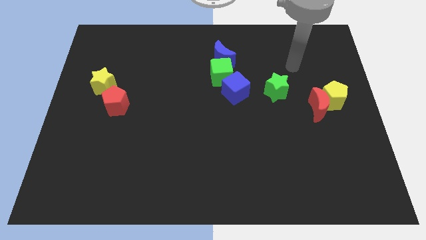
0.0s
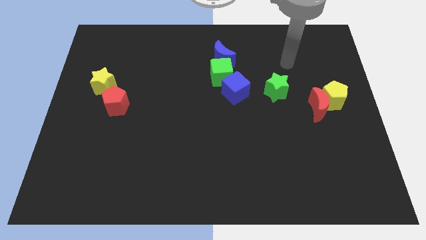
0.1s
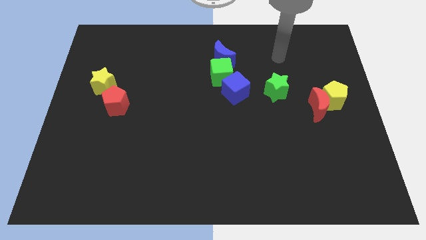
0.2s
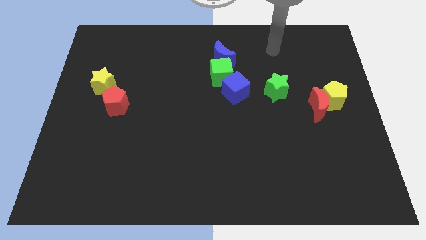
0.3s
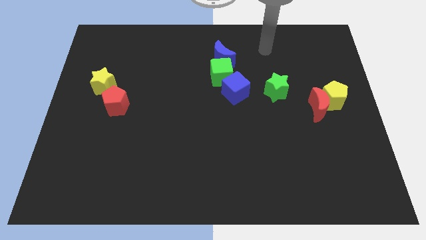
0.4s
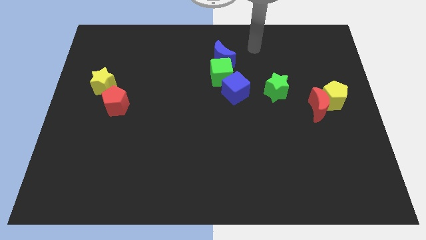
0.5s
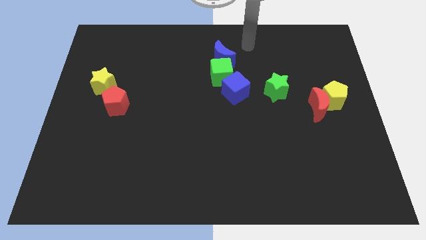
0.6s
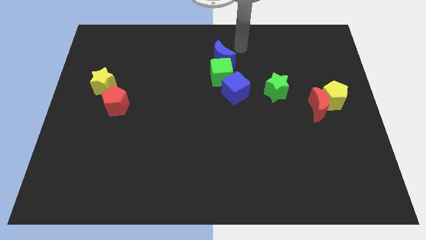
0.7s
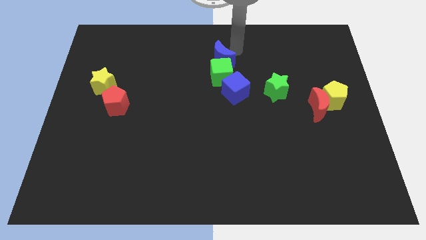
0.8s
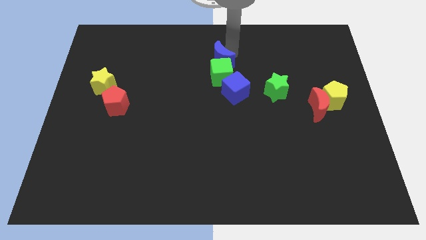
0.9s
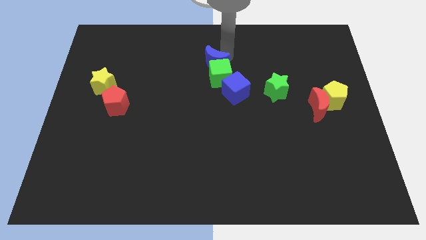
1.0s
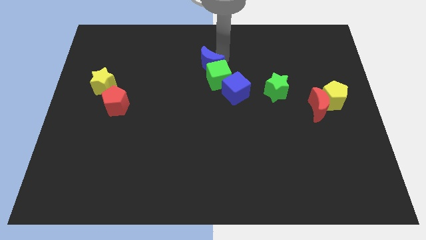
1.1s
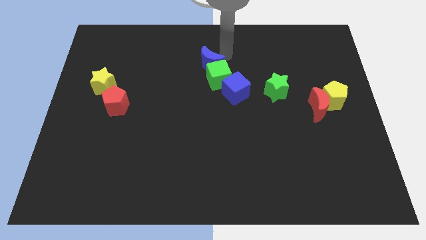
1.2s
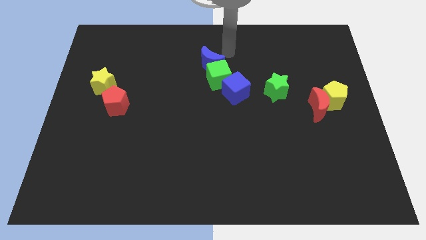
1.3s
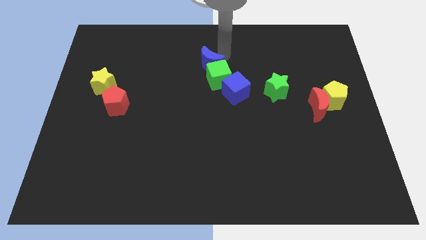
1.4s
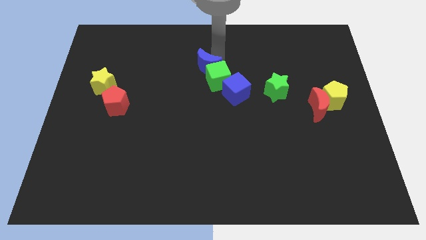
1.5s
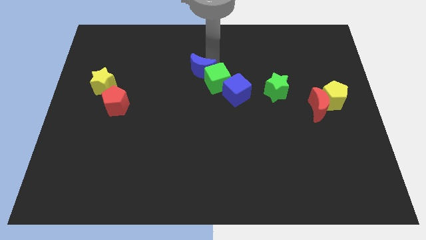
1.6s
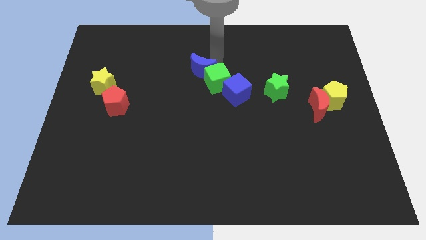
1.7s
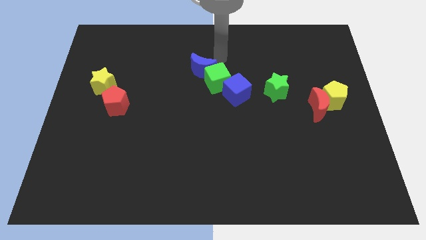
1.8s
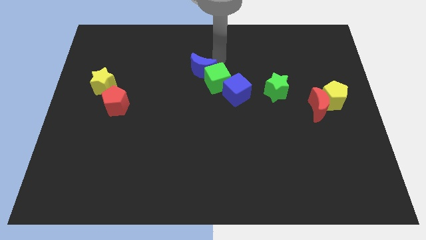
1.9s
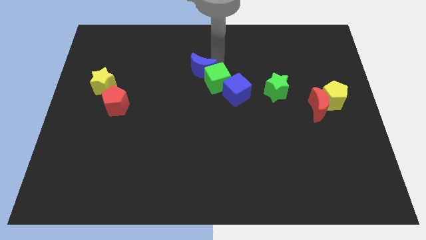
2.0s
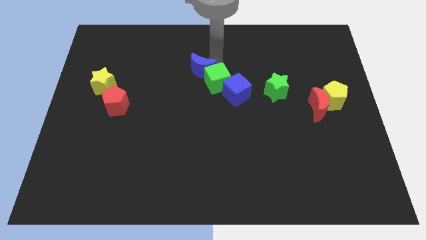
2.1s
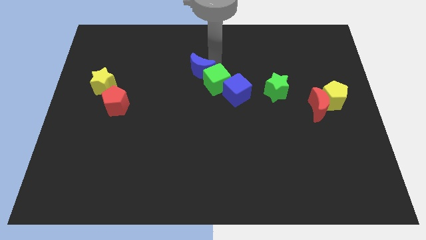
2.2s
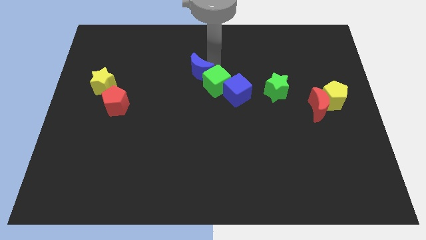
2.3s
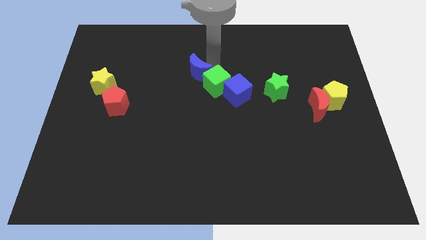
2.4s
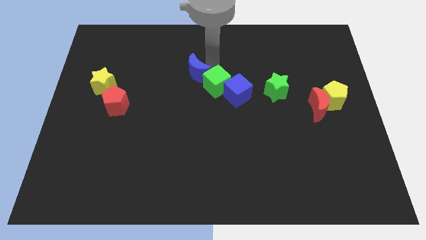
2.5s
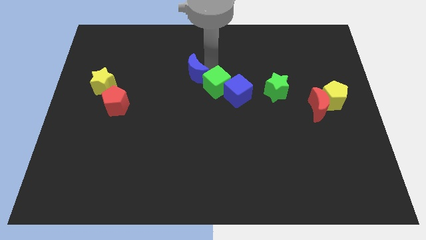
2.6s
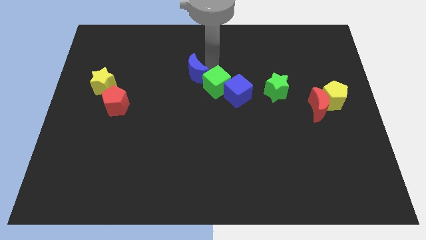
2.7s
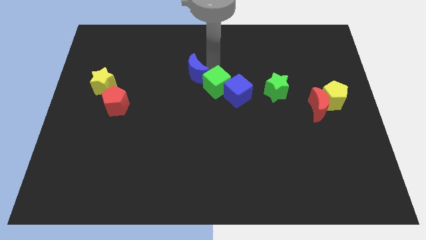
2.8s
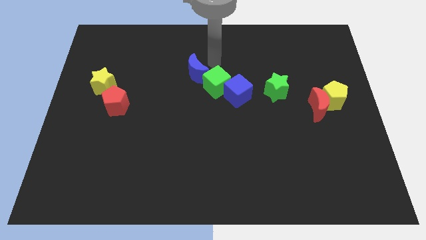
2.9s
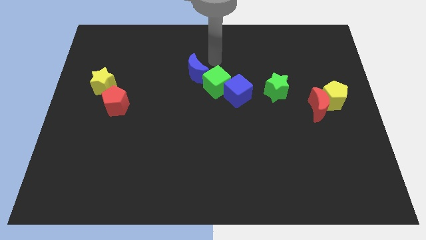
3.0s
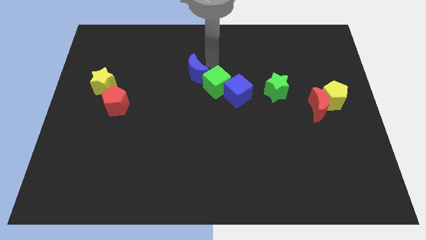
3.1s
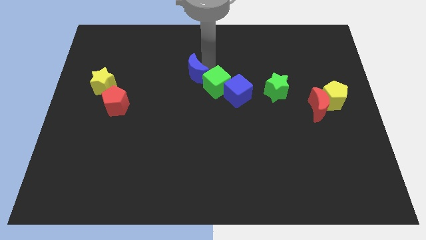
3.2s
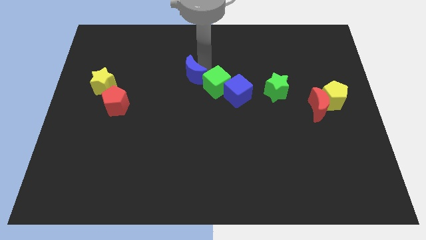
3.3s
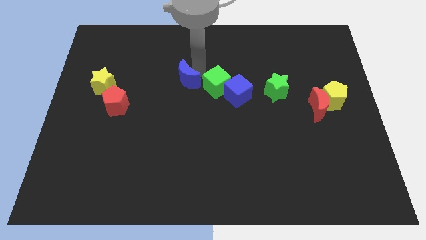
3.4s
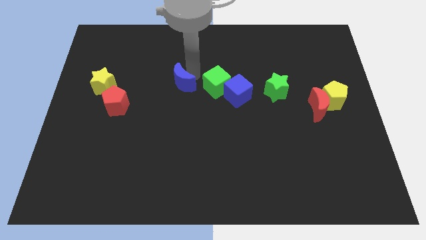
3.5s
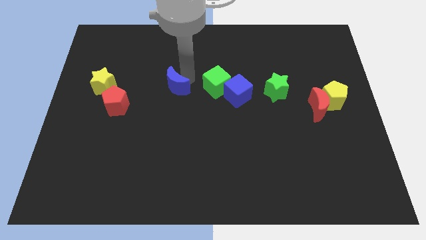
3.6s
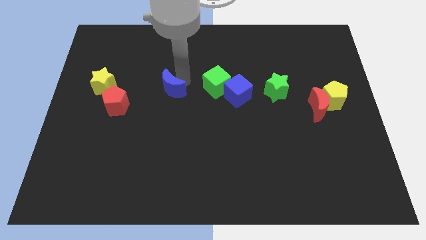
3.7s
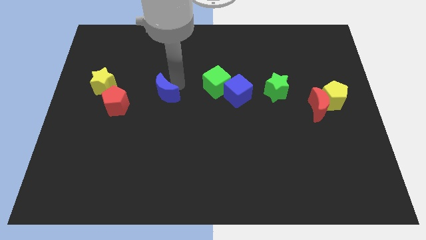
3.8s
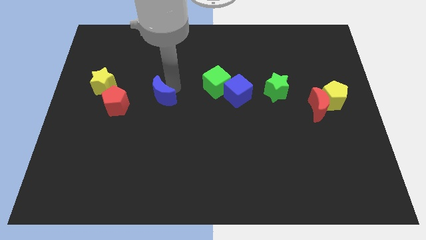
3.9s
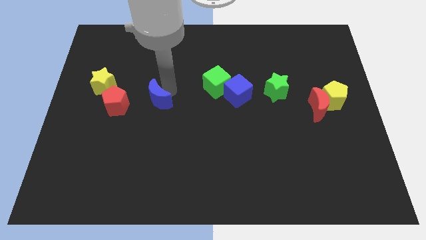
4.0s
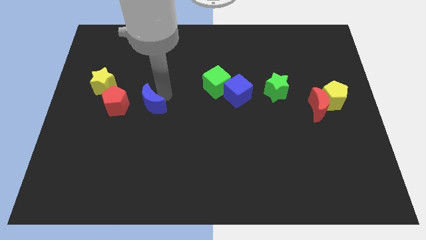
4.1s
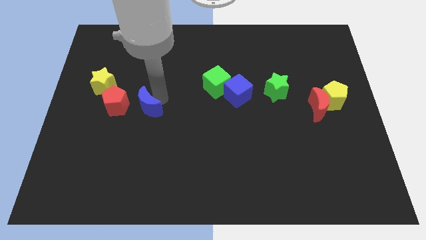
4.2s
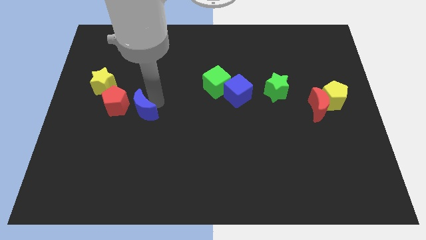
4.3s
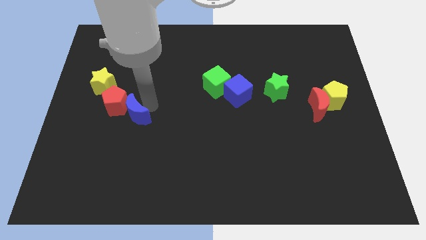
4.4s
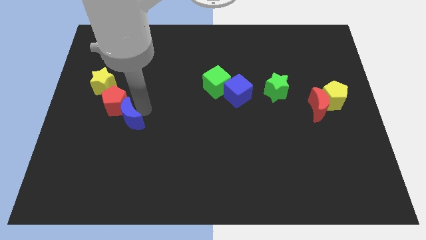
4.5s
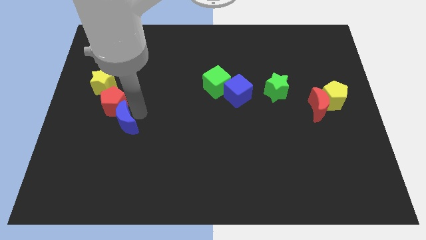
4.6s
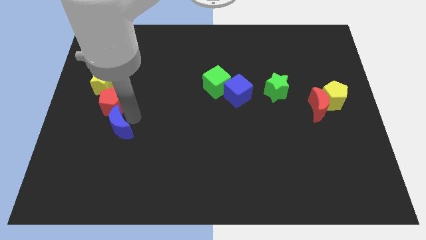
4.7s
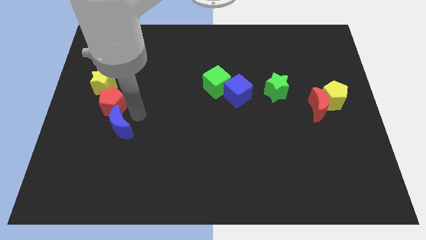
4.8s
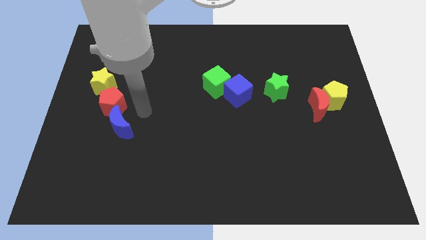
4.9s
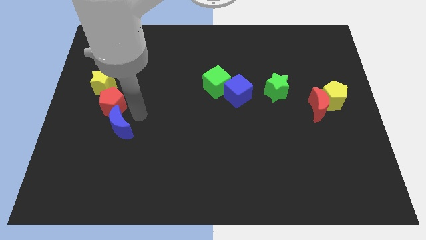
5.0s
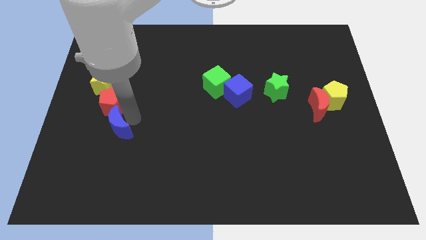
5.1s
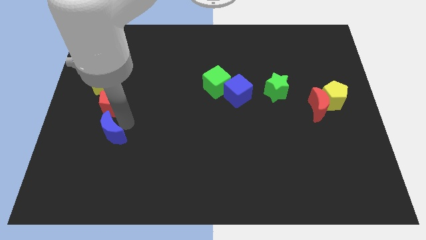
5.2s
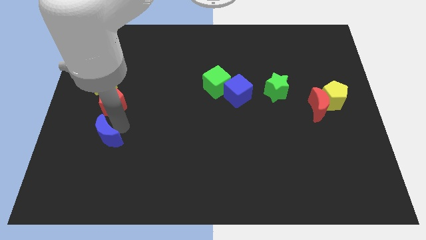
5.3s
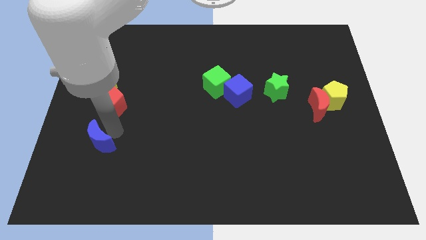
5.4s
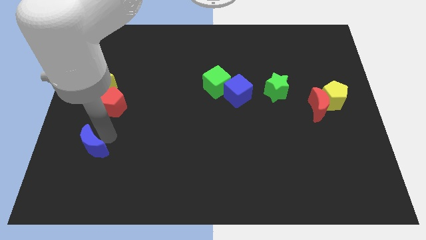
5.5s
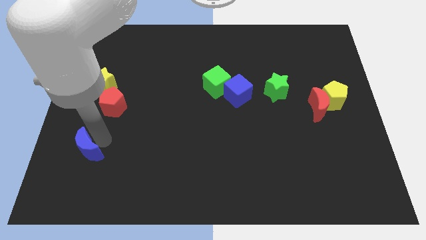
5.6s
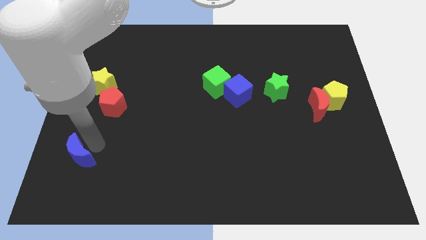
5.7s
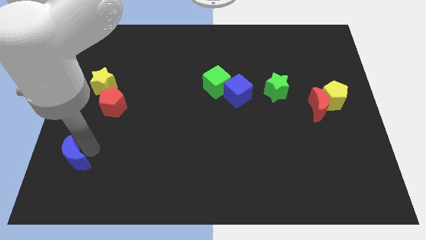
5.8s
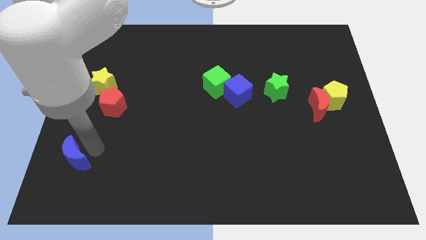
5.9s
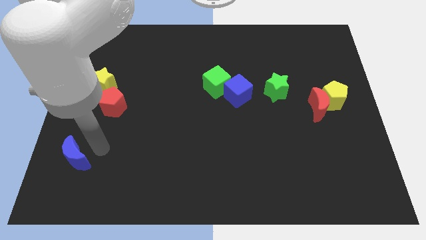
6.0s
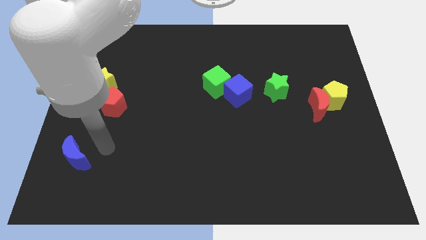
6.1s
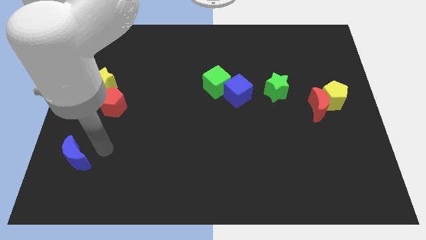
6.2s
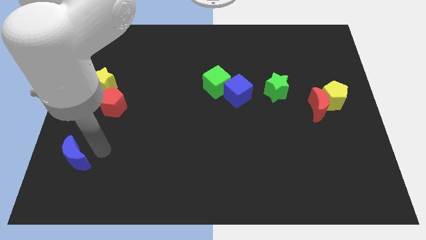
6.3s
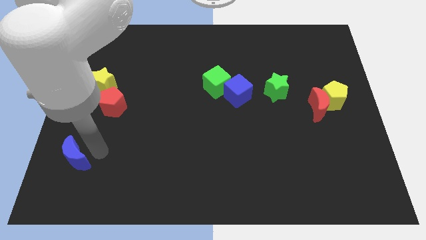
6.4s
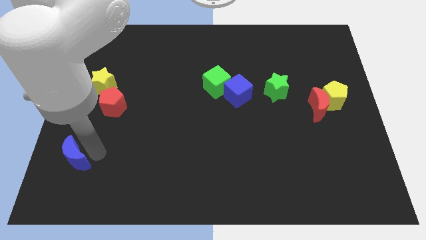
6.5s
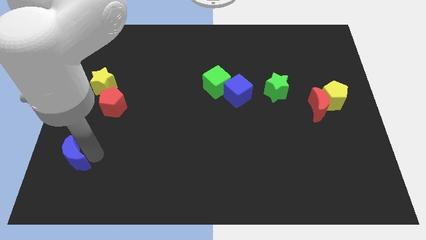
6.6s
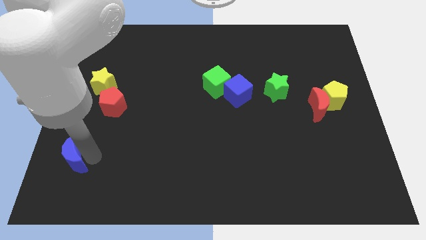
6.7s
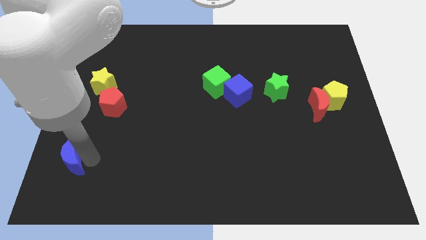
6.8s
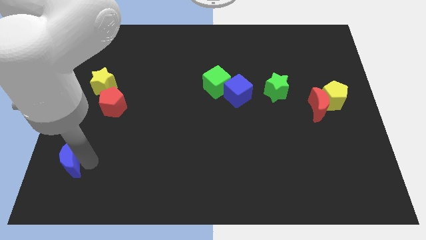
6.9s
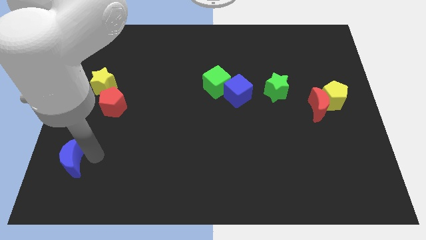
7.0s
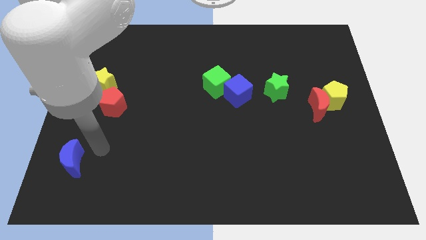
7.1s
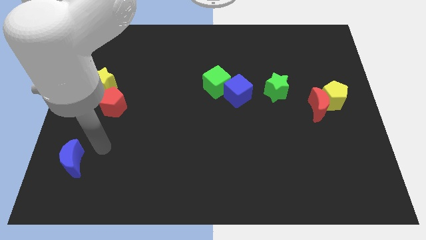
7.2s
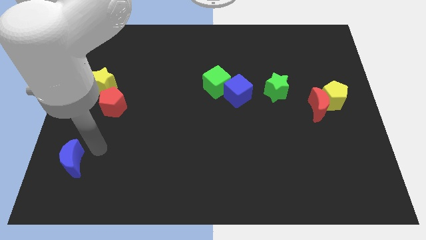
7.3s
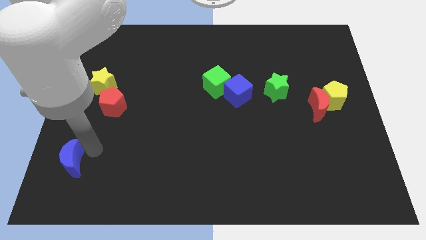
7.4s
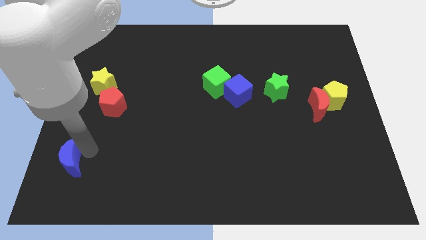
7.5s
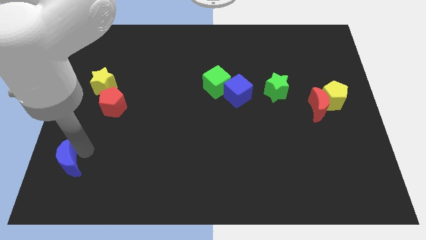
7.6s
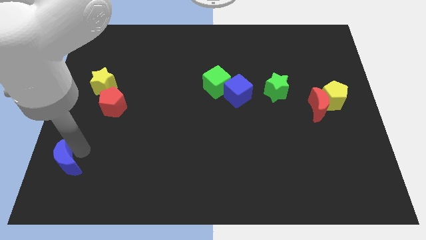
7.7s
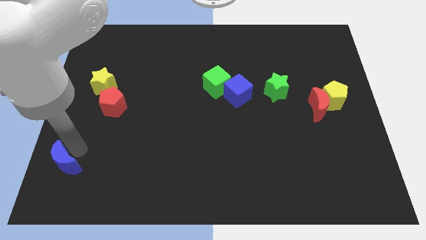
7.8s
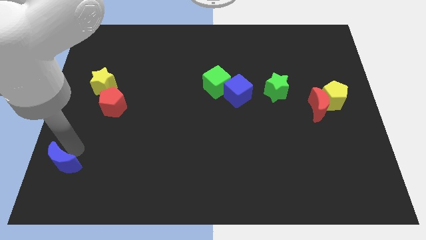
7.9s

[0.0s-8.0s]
put the blue moon to the bottom left
